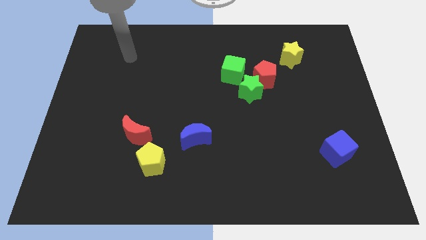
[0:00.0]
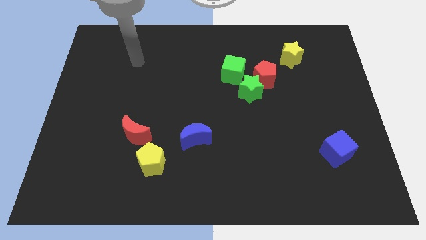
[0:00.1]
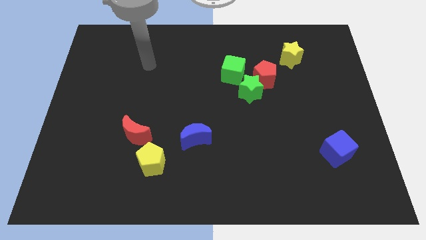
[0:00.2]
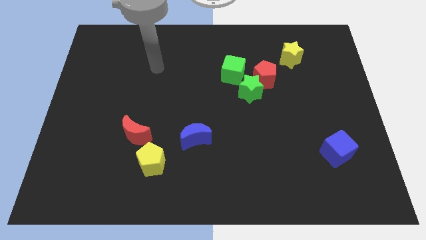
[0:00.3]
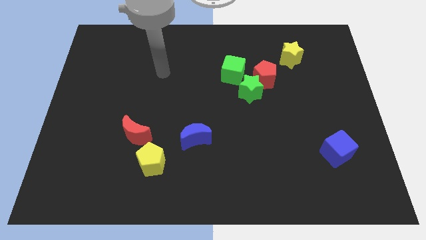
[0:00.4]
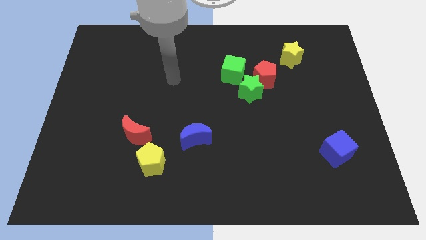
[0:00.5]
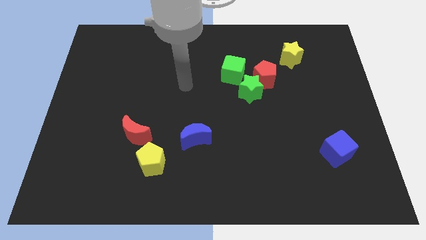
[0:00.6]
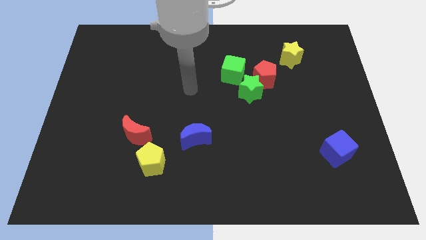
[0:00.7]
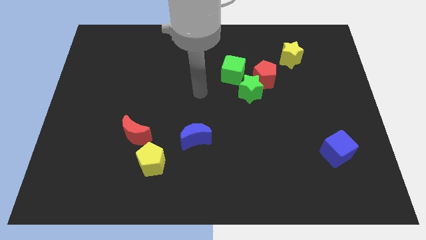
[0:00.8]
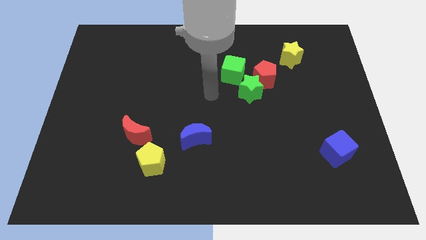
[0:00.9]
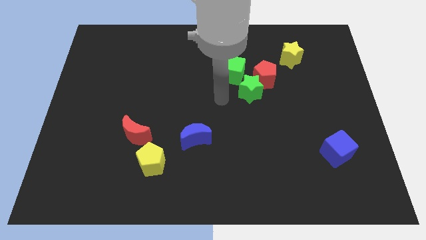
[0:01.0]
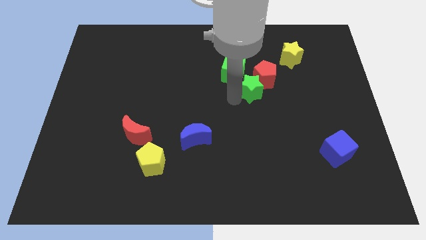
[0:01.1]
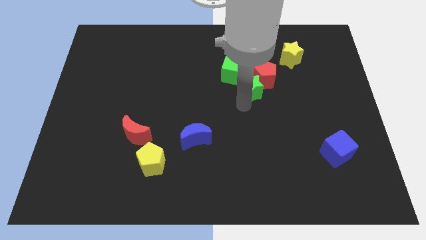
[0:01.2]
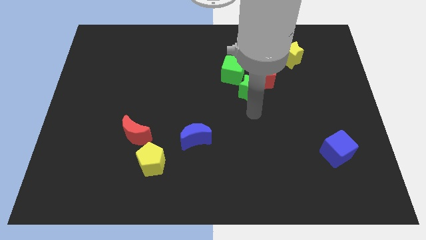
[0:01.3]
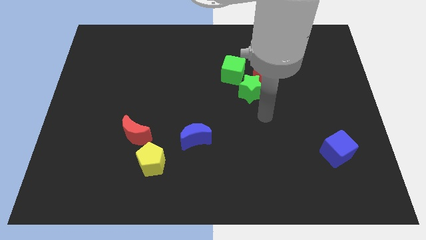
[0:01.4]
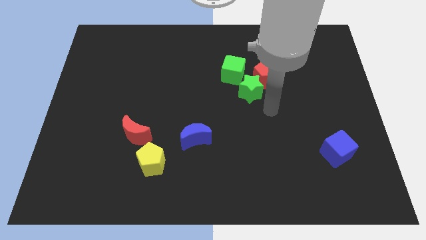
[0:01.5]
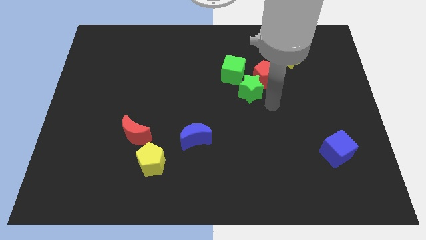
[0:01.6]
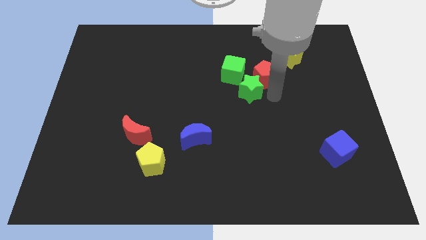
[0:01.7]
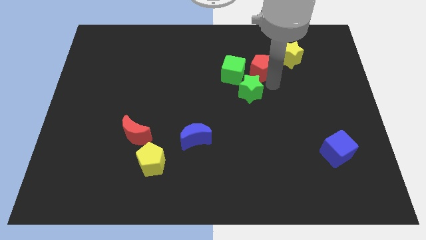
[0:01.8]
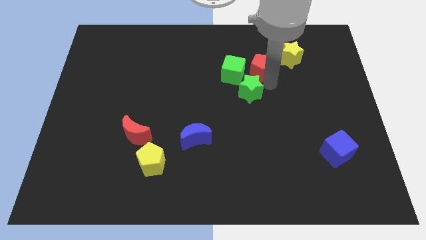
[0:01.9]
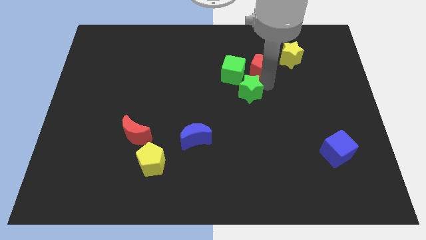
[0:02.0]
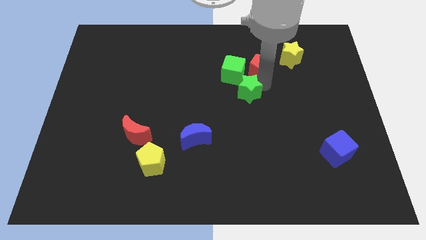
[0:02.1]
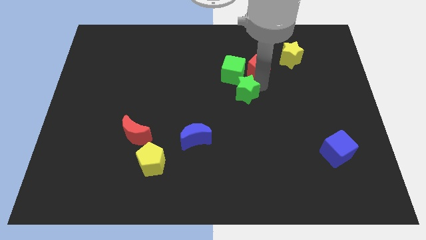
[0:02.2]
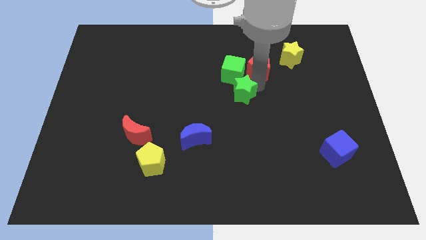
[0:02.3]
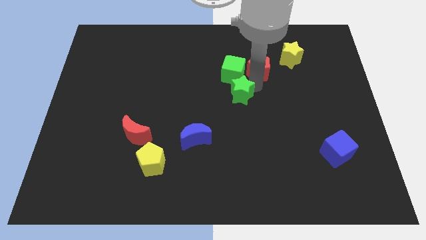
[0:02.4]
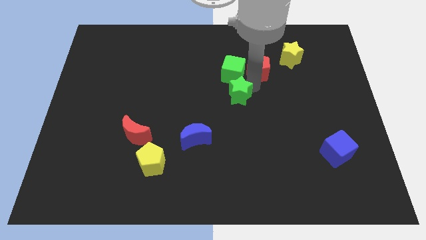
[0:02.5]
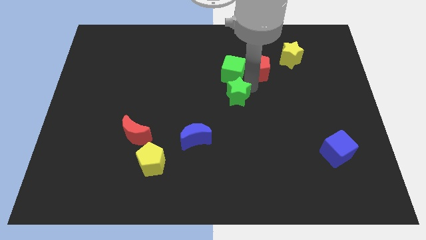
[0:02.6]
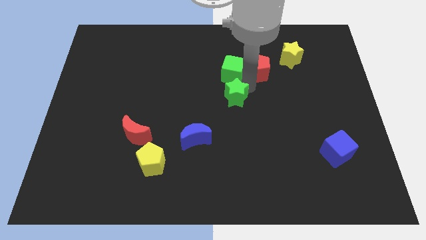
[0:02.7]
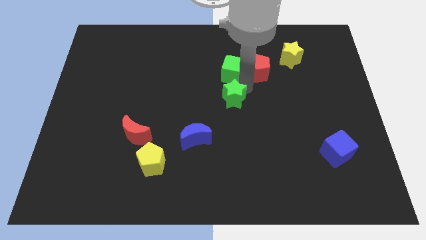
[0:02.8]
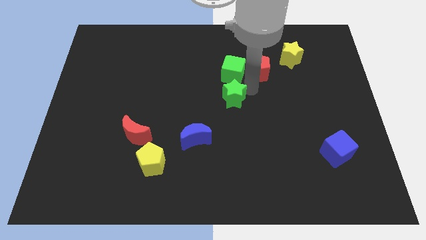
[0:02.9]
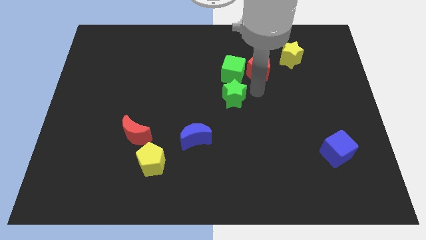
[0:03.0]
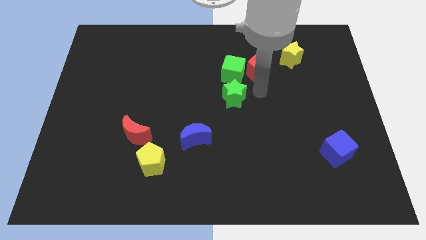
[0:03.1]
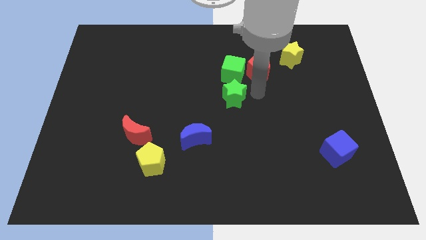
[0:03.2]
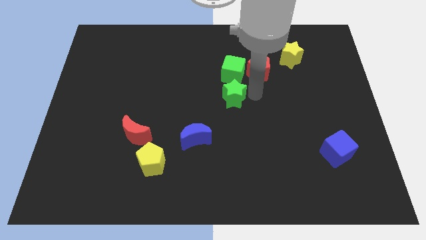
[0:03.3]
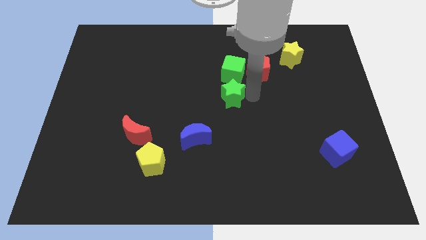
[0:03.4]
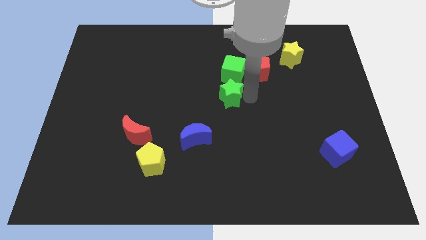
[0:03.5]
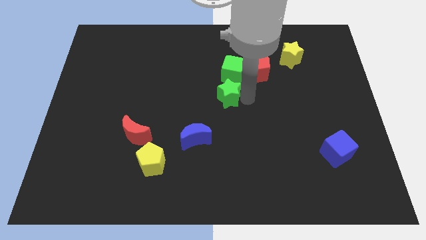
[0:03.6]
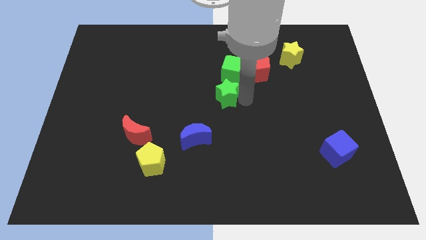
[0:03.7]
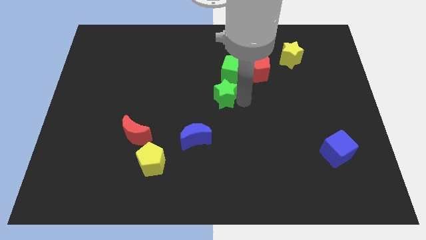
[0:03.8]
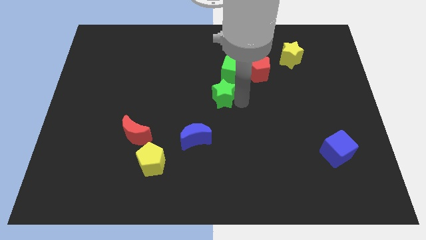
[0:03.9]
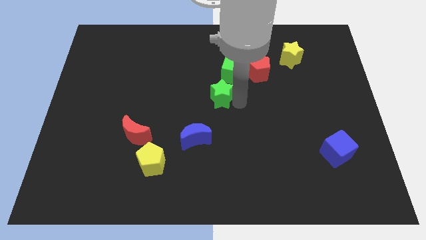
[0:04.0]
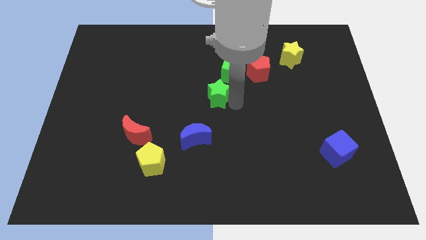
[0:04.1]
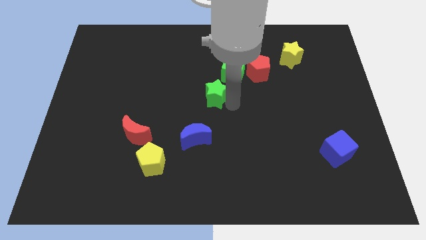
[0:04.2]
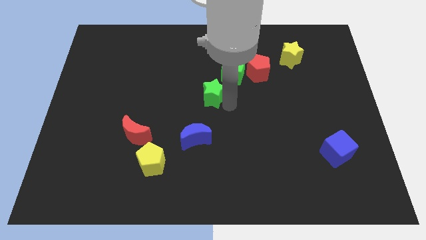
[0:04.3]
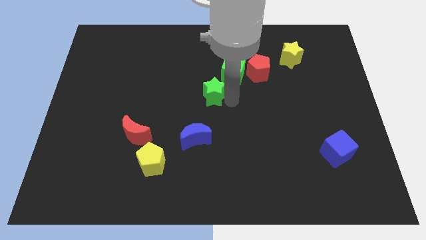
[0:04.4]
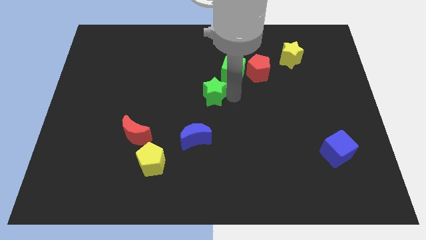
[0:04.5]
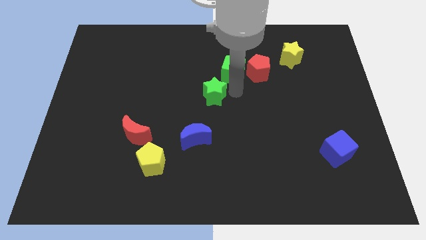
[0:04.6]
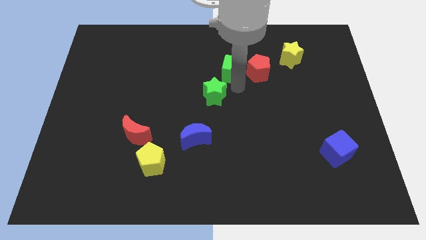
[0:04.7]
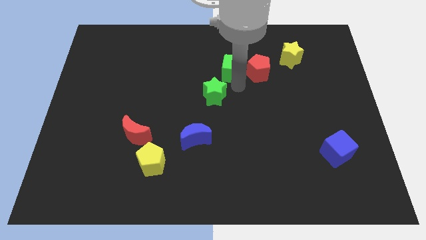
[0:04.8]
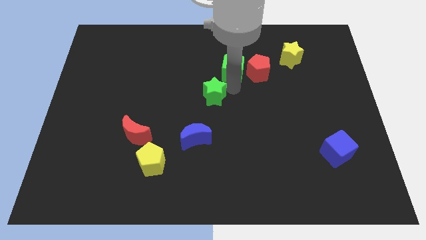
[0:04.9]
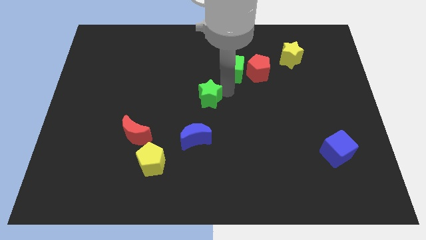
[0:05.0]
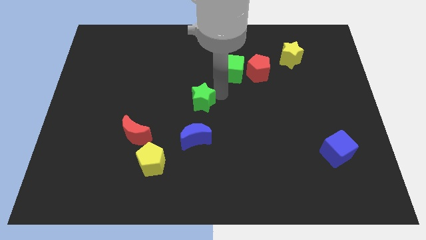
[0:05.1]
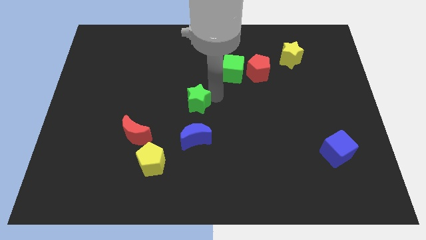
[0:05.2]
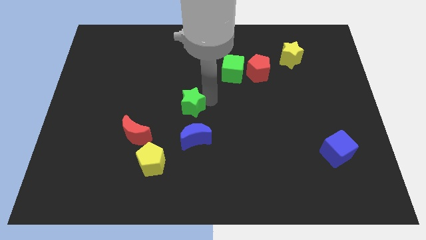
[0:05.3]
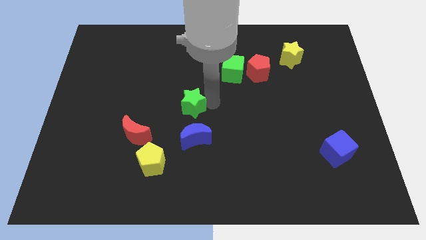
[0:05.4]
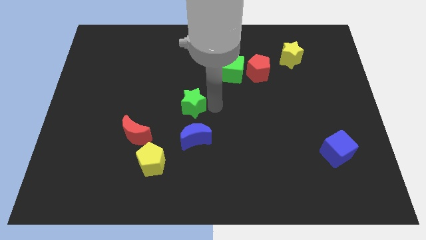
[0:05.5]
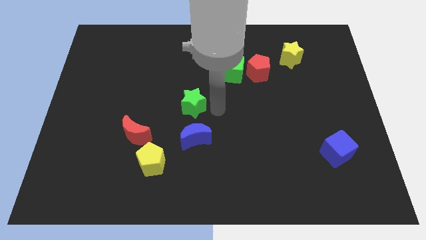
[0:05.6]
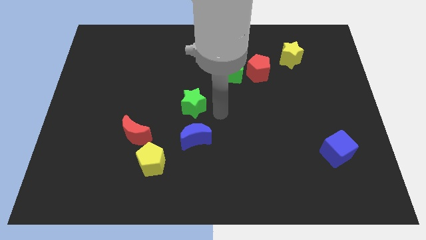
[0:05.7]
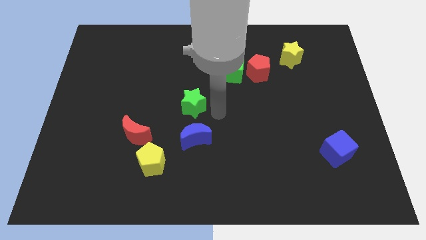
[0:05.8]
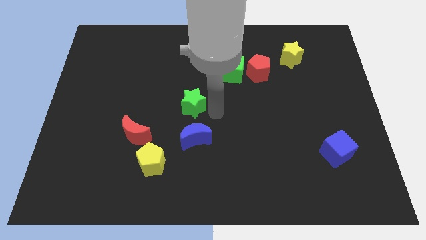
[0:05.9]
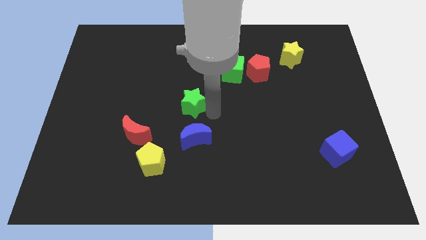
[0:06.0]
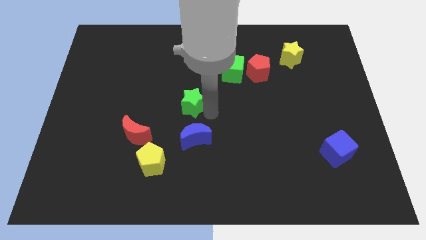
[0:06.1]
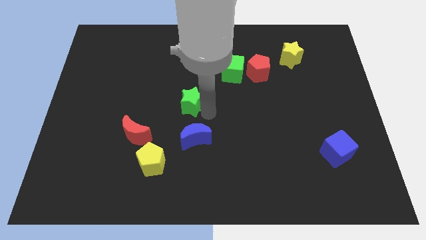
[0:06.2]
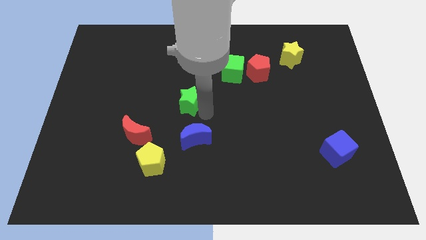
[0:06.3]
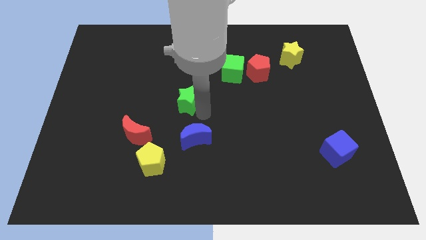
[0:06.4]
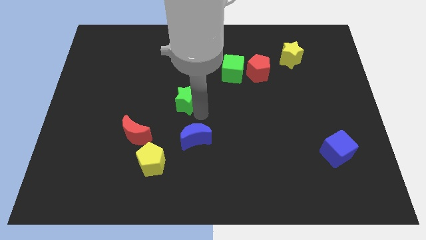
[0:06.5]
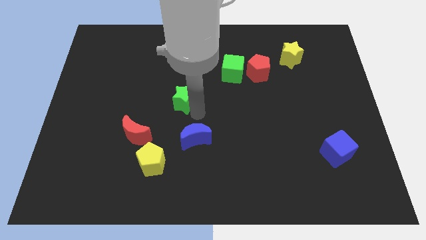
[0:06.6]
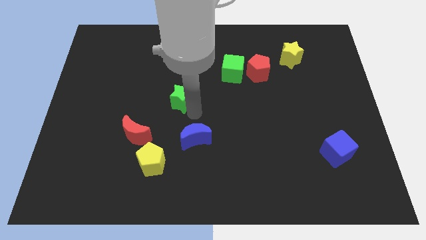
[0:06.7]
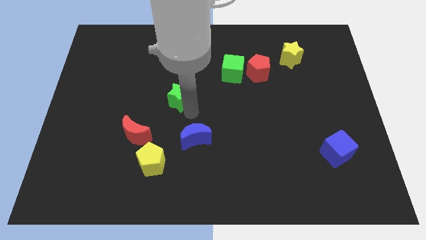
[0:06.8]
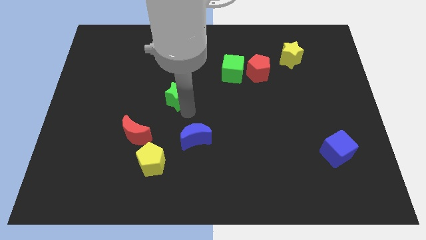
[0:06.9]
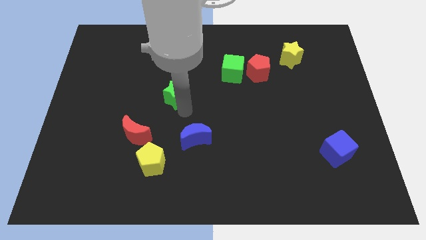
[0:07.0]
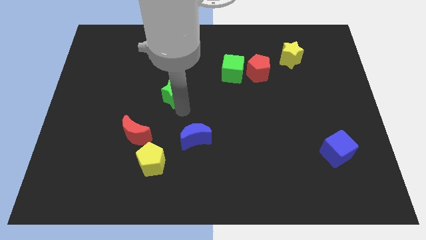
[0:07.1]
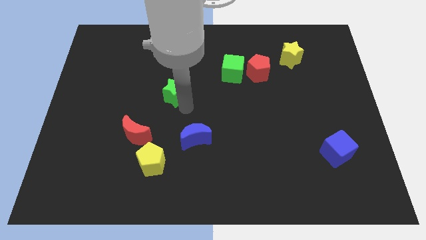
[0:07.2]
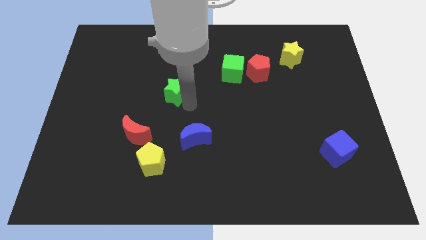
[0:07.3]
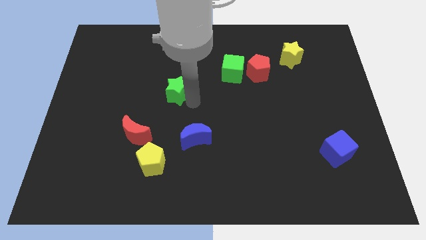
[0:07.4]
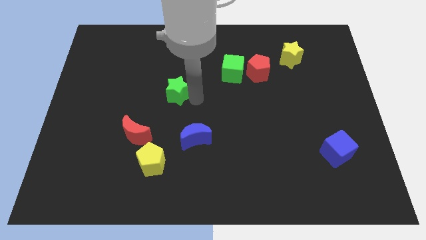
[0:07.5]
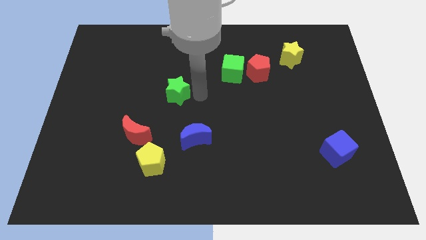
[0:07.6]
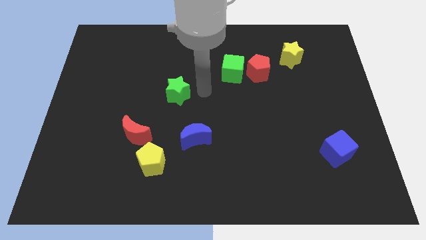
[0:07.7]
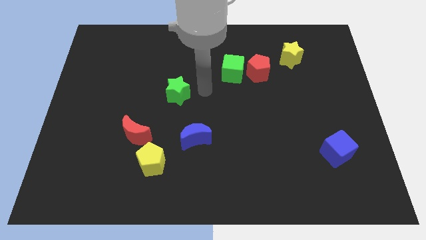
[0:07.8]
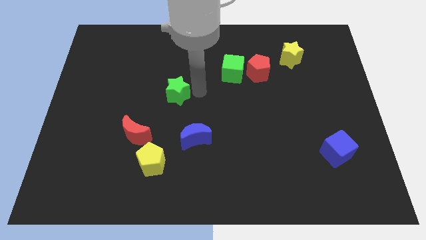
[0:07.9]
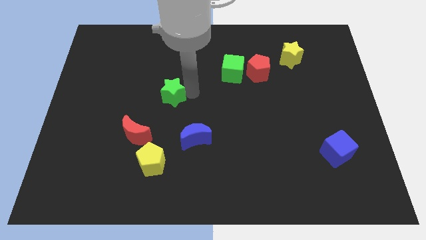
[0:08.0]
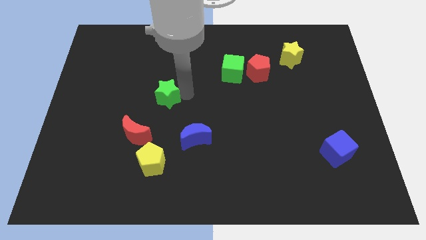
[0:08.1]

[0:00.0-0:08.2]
move the green star left
